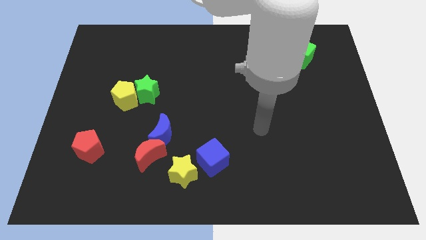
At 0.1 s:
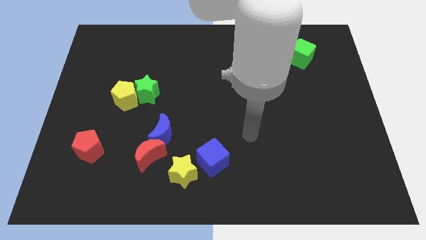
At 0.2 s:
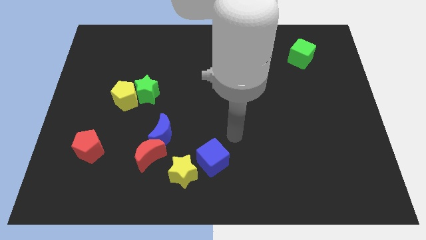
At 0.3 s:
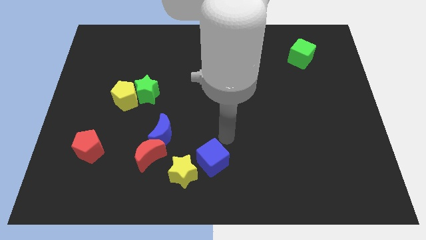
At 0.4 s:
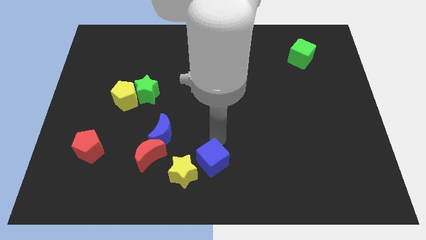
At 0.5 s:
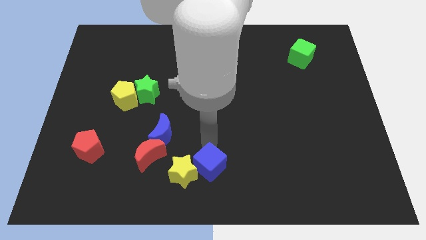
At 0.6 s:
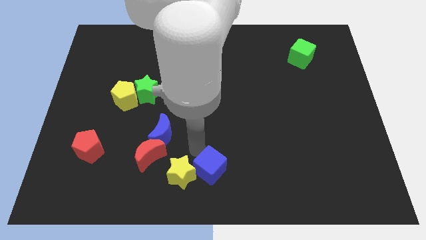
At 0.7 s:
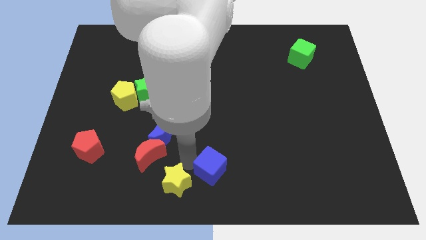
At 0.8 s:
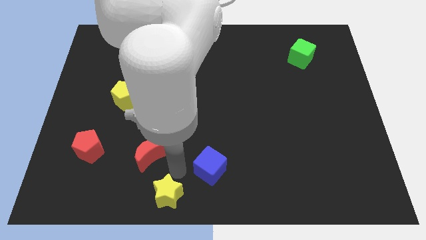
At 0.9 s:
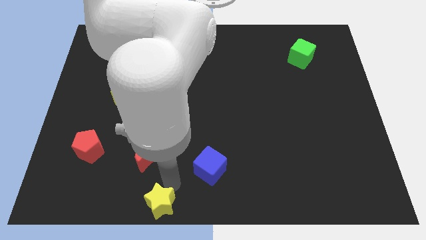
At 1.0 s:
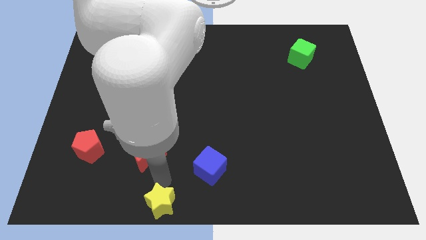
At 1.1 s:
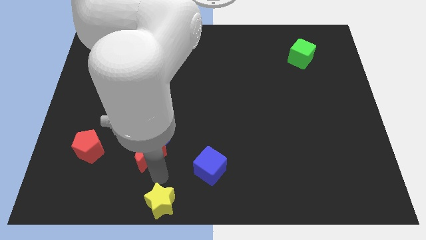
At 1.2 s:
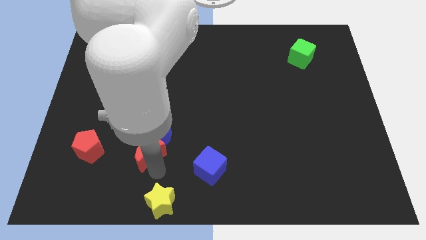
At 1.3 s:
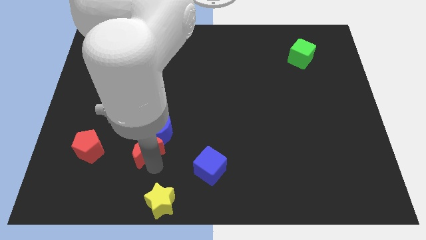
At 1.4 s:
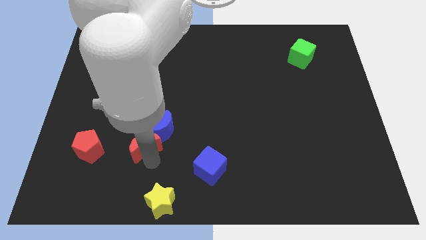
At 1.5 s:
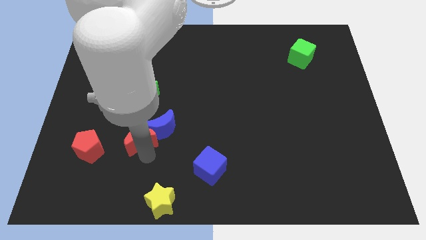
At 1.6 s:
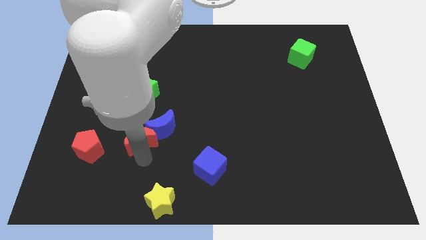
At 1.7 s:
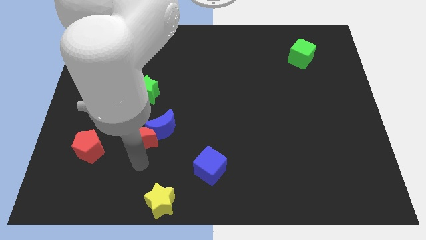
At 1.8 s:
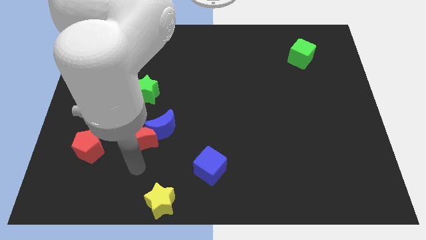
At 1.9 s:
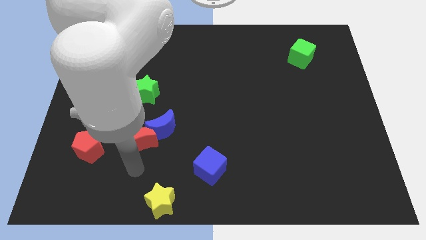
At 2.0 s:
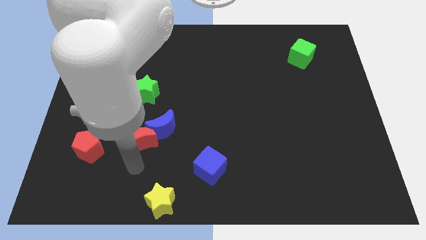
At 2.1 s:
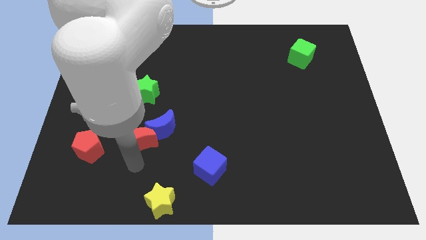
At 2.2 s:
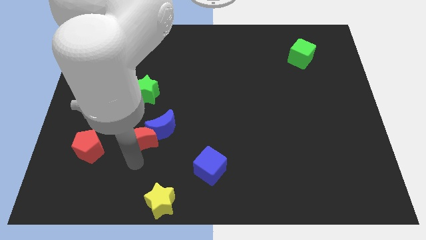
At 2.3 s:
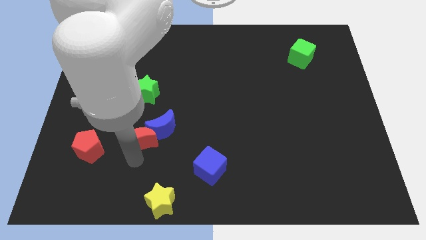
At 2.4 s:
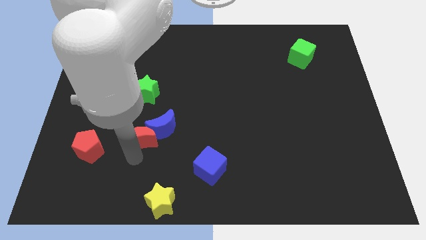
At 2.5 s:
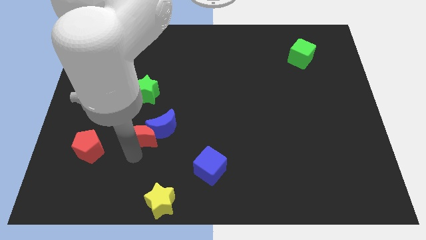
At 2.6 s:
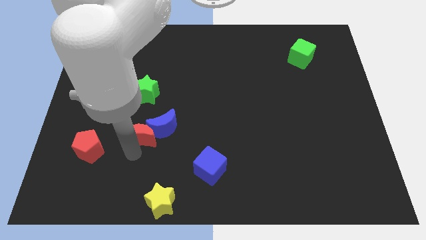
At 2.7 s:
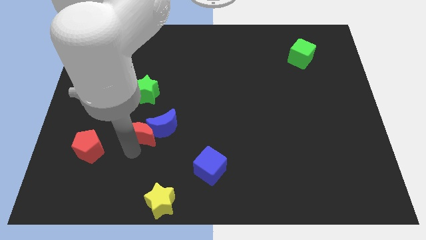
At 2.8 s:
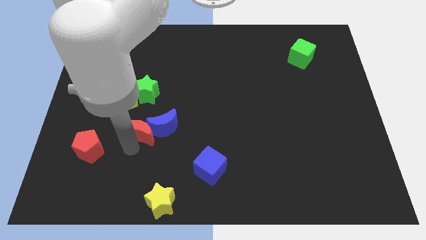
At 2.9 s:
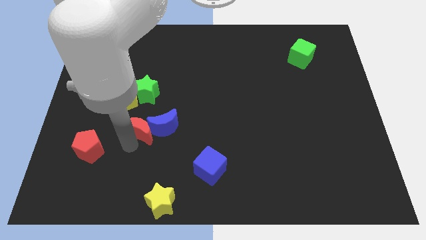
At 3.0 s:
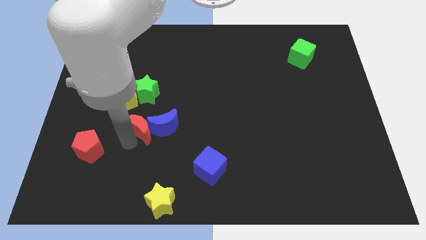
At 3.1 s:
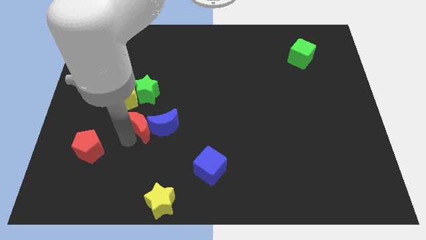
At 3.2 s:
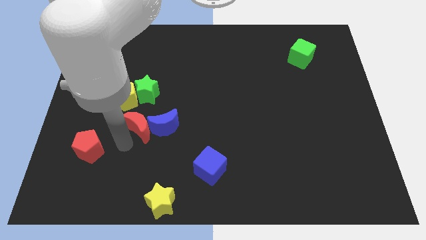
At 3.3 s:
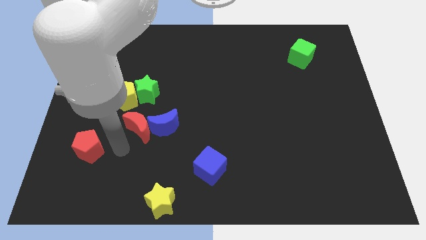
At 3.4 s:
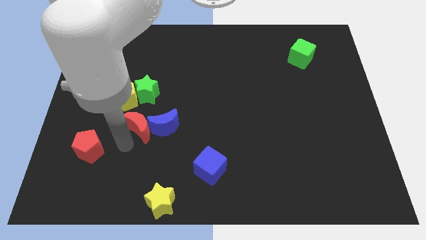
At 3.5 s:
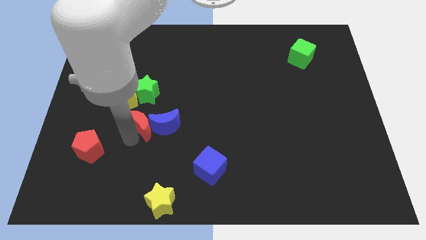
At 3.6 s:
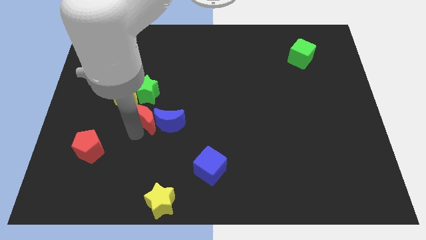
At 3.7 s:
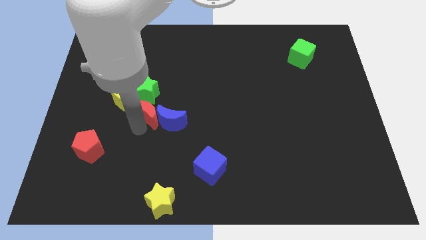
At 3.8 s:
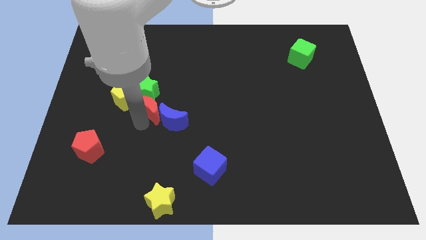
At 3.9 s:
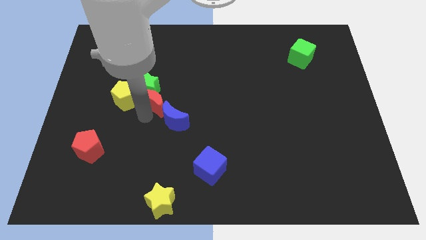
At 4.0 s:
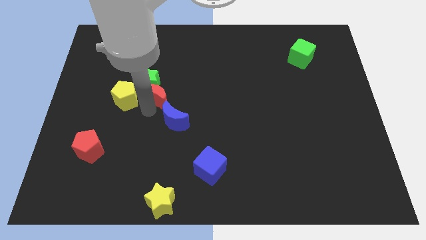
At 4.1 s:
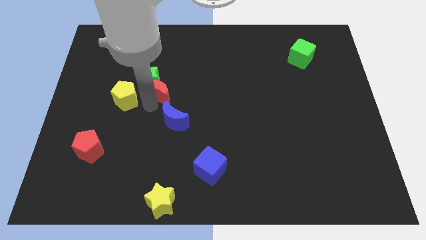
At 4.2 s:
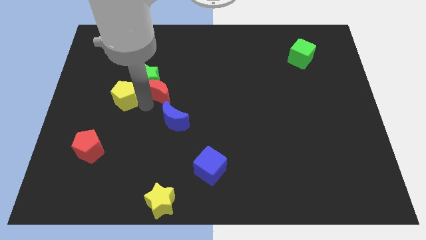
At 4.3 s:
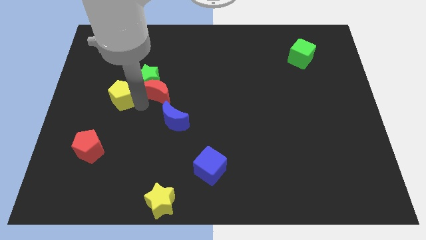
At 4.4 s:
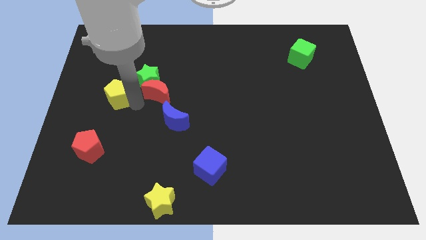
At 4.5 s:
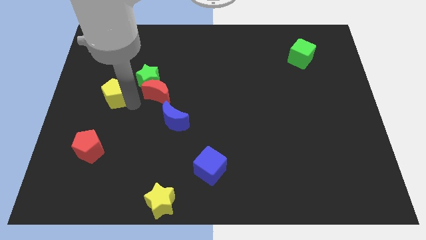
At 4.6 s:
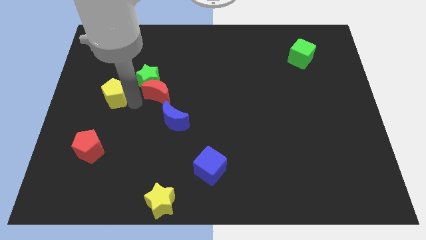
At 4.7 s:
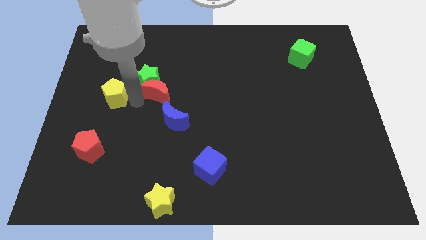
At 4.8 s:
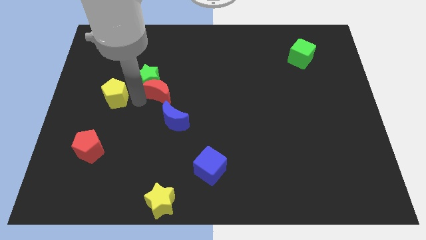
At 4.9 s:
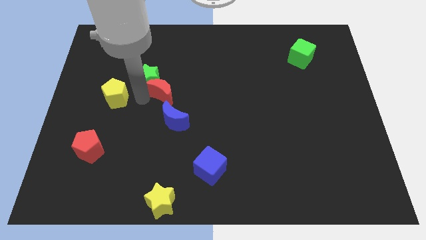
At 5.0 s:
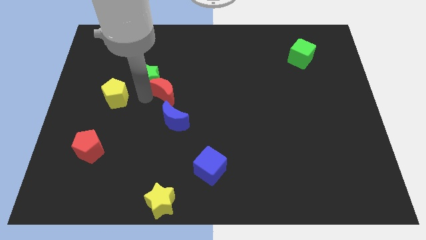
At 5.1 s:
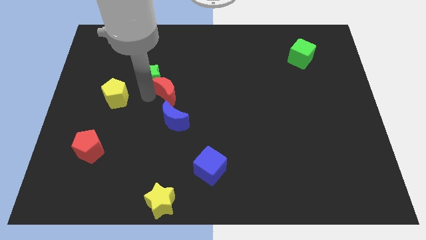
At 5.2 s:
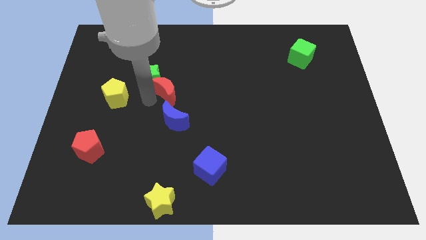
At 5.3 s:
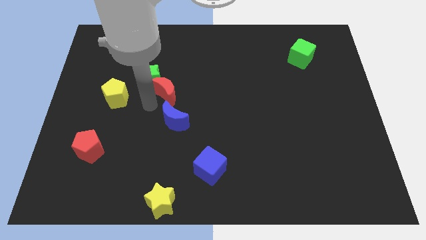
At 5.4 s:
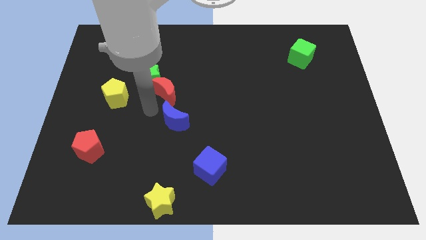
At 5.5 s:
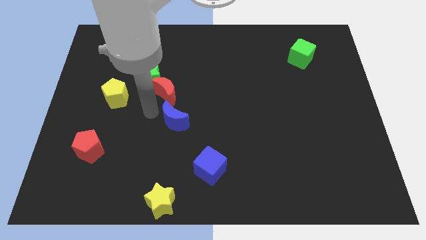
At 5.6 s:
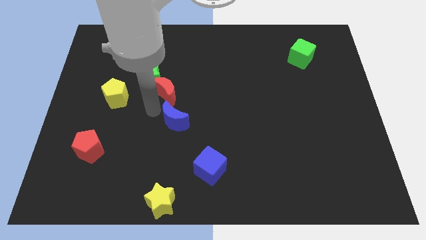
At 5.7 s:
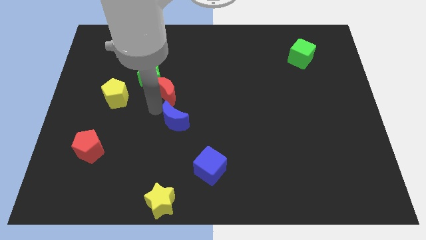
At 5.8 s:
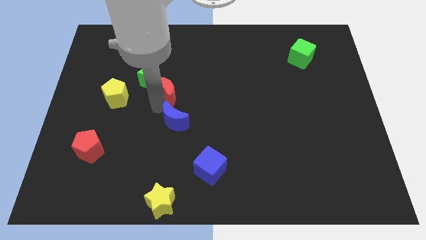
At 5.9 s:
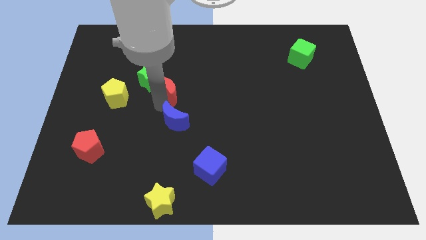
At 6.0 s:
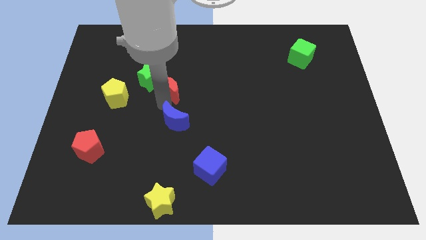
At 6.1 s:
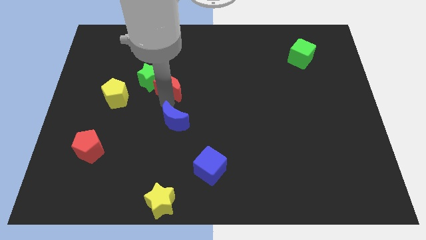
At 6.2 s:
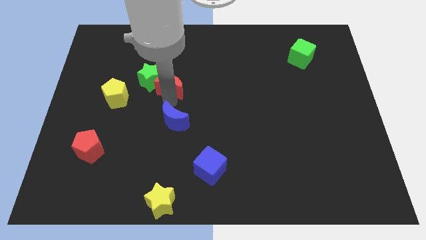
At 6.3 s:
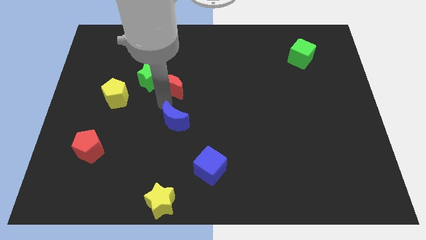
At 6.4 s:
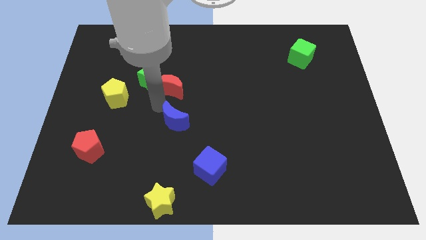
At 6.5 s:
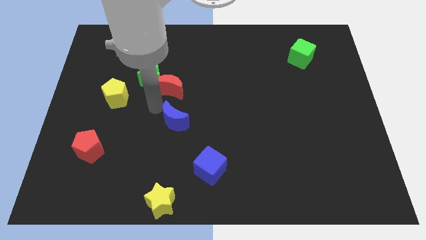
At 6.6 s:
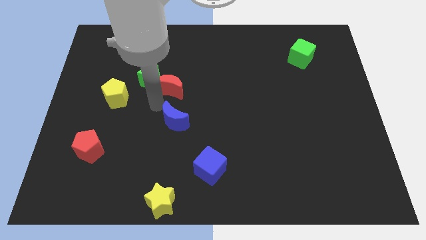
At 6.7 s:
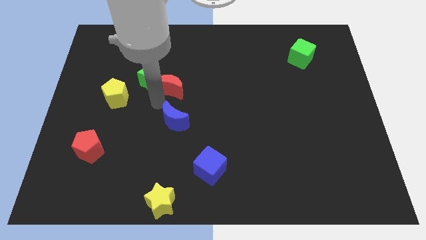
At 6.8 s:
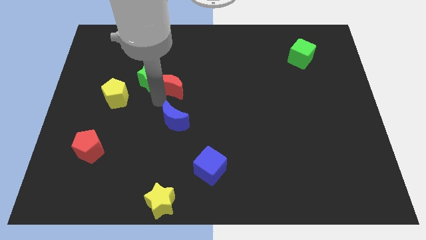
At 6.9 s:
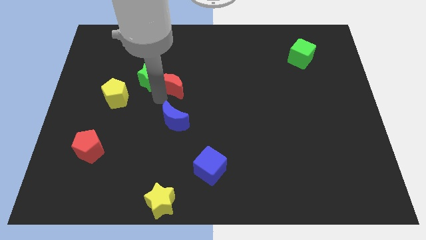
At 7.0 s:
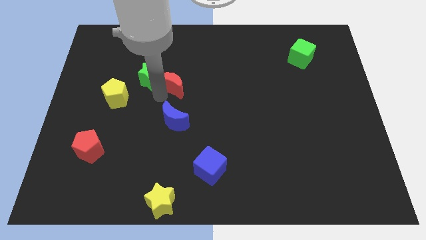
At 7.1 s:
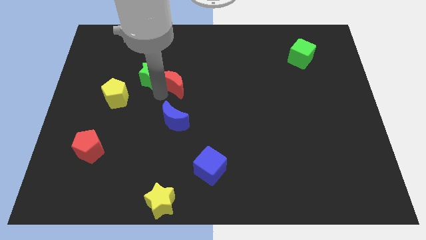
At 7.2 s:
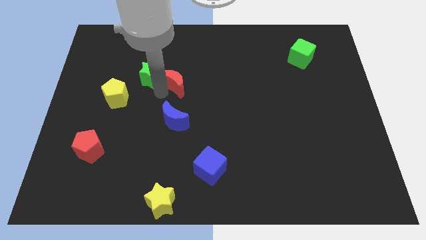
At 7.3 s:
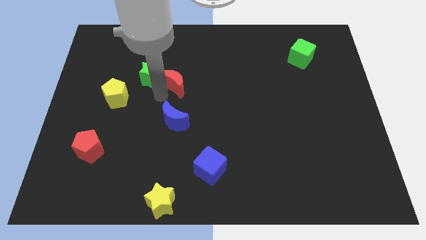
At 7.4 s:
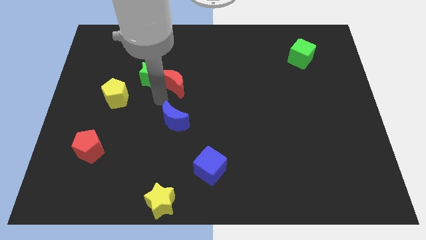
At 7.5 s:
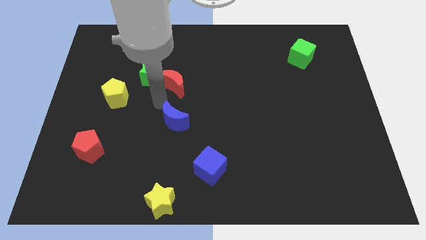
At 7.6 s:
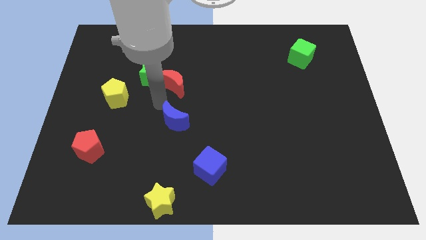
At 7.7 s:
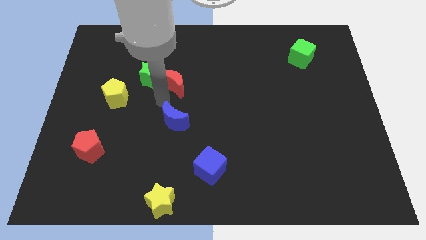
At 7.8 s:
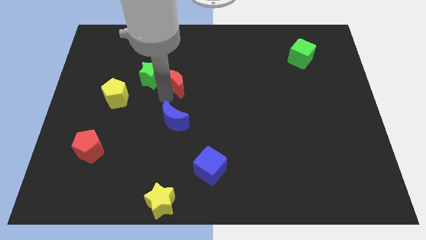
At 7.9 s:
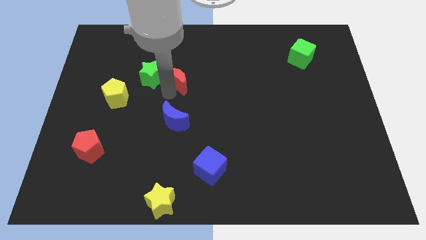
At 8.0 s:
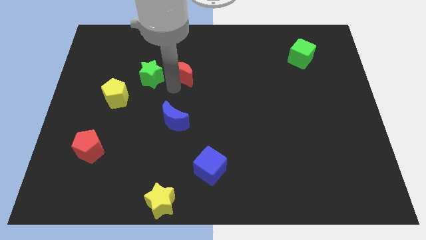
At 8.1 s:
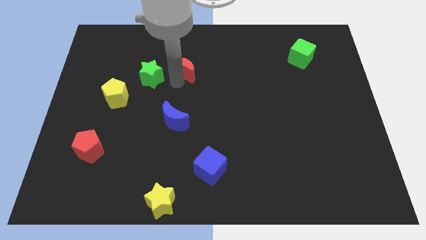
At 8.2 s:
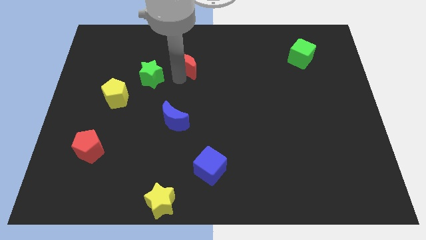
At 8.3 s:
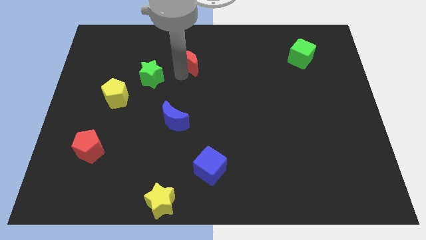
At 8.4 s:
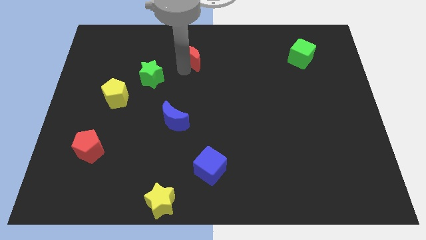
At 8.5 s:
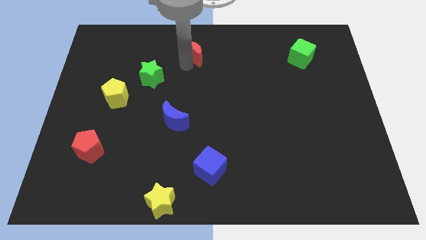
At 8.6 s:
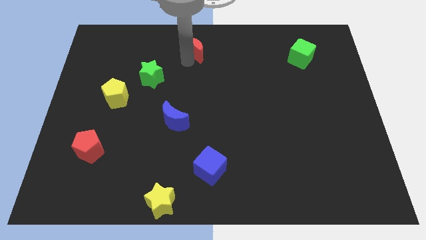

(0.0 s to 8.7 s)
put the red moon to the towards your base
